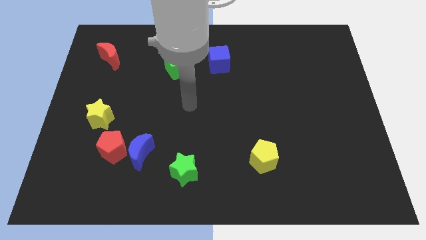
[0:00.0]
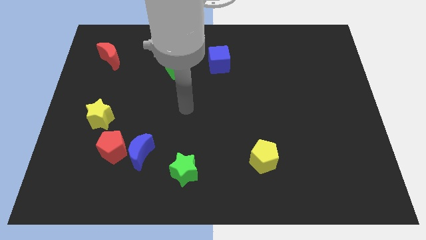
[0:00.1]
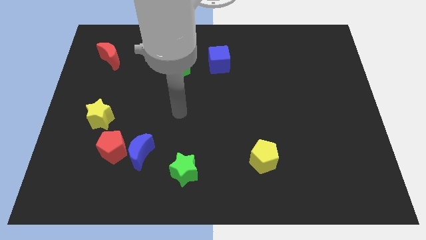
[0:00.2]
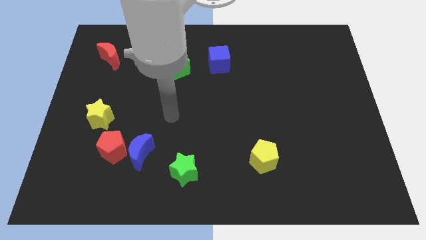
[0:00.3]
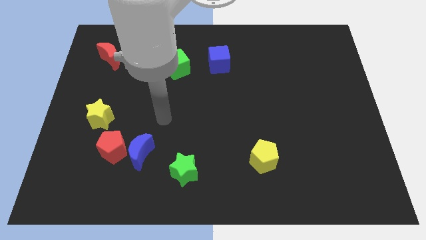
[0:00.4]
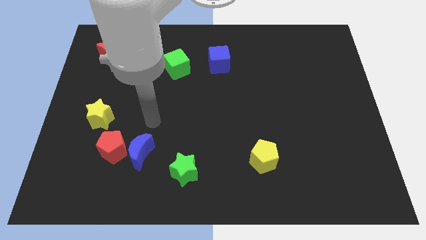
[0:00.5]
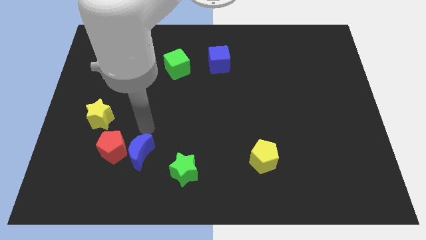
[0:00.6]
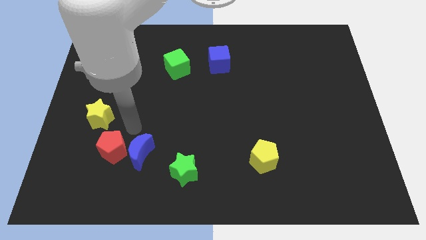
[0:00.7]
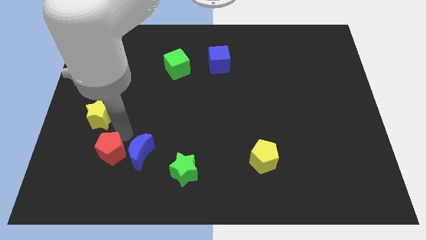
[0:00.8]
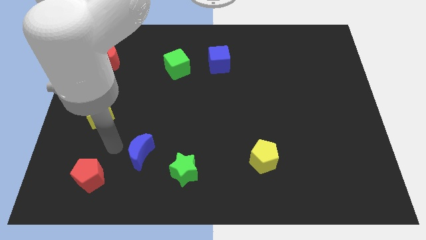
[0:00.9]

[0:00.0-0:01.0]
separate the blue moon from the red pentagon

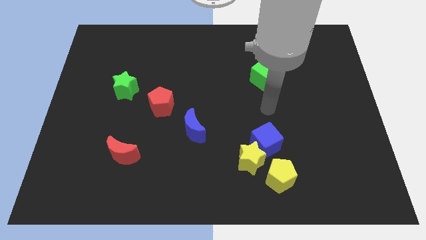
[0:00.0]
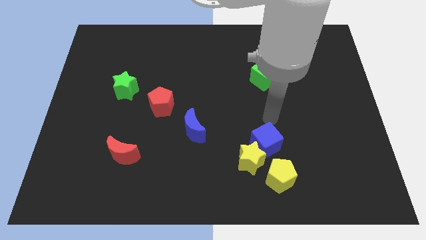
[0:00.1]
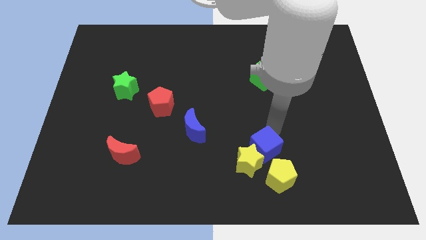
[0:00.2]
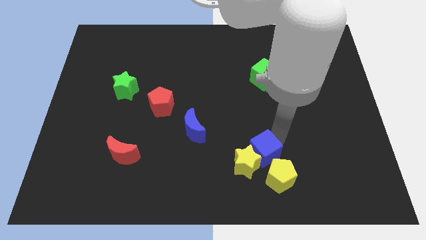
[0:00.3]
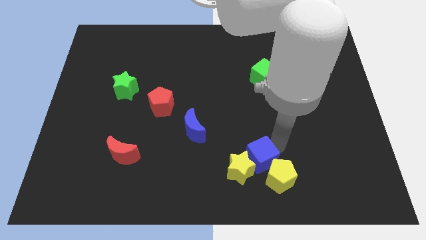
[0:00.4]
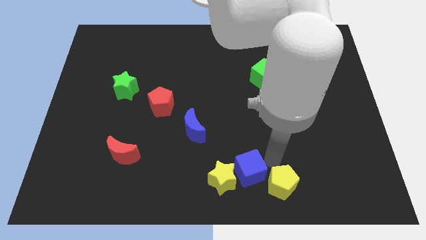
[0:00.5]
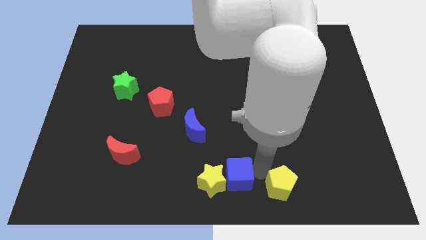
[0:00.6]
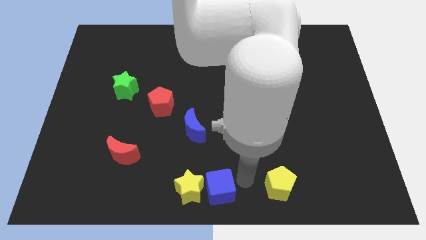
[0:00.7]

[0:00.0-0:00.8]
separate the yellow star from the blue cube and yellow pentagon

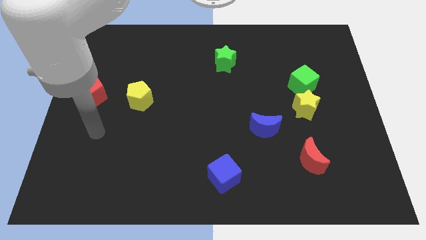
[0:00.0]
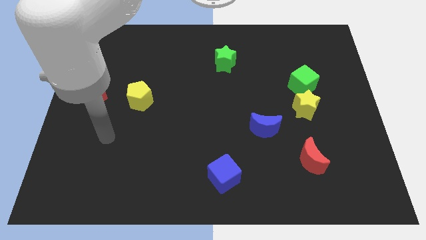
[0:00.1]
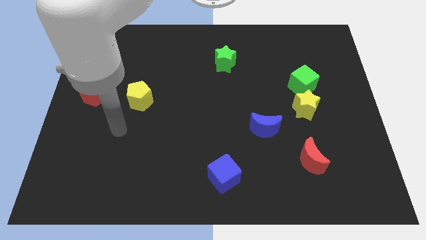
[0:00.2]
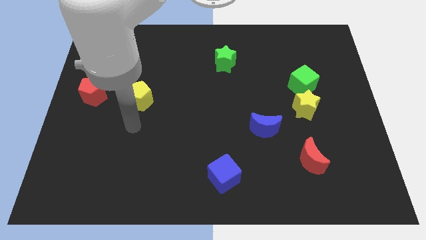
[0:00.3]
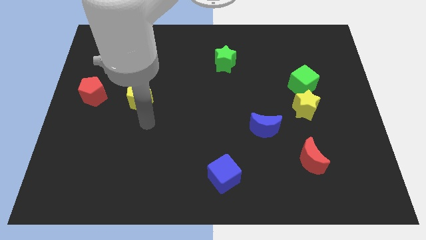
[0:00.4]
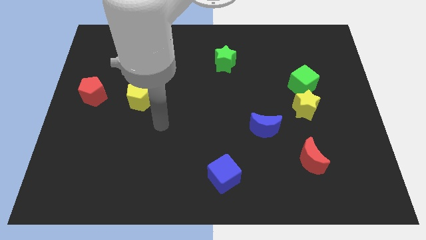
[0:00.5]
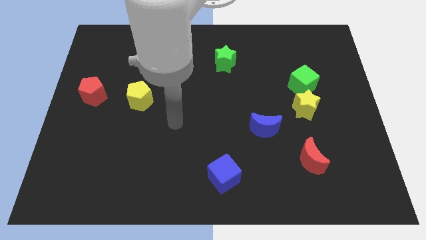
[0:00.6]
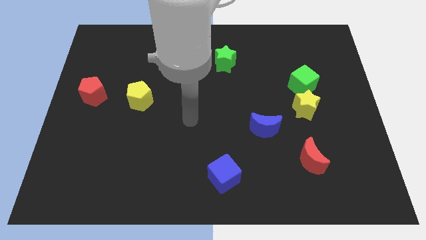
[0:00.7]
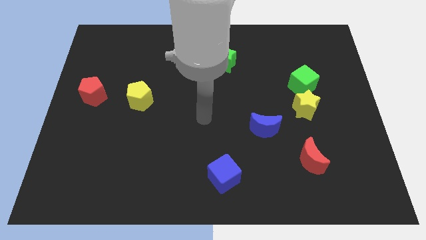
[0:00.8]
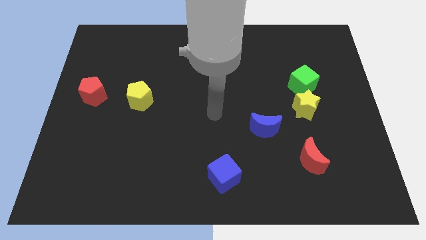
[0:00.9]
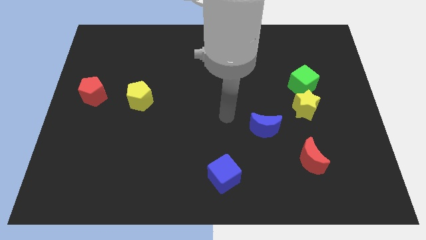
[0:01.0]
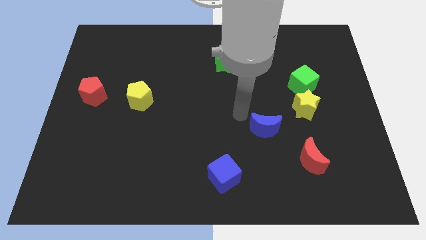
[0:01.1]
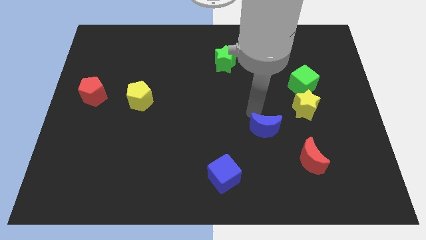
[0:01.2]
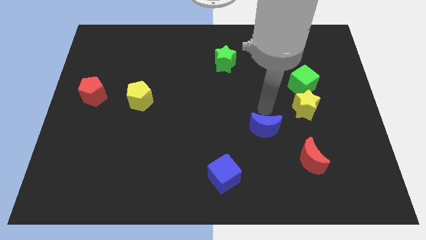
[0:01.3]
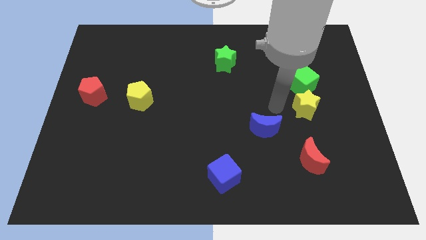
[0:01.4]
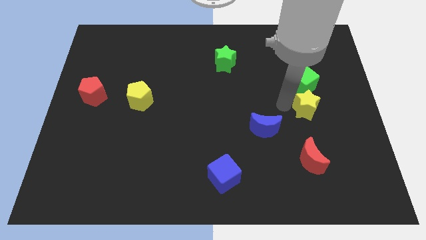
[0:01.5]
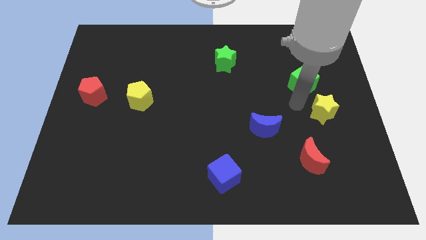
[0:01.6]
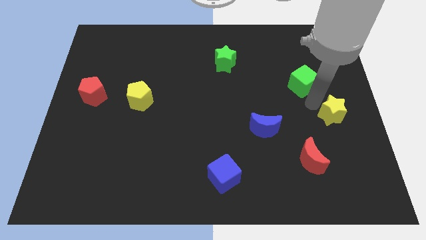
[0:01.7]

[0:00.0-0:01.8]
move the green cube away from the yellow star

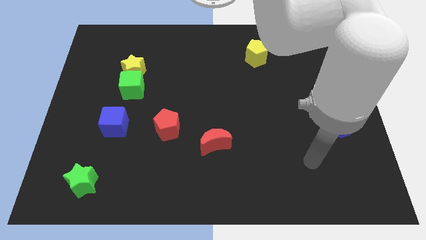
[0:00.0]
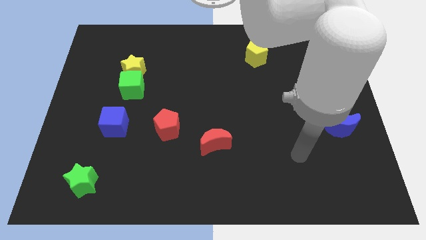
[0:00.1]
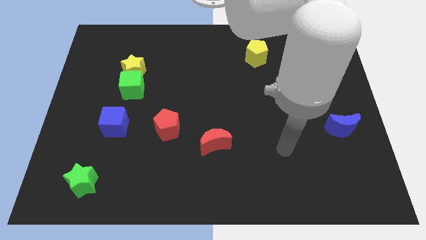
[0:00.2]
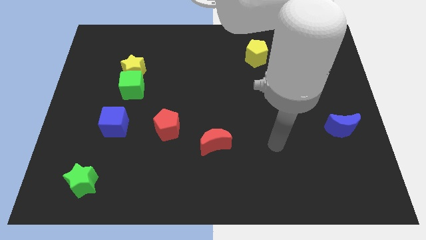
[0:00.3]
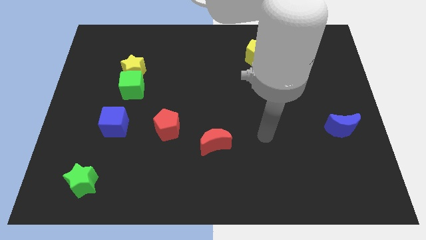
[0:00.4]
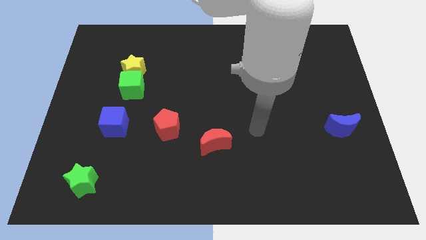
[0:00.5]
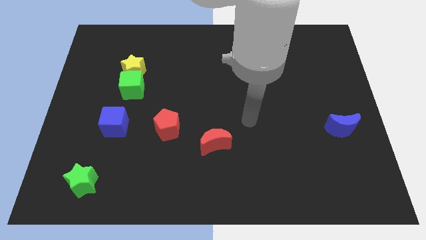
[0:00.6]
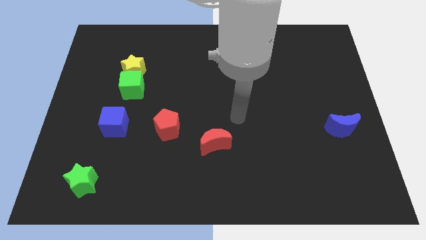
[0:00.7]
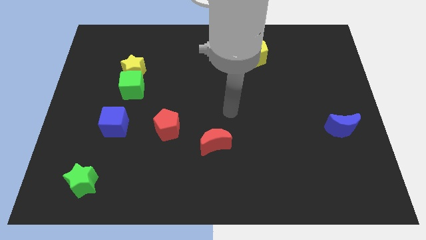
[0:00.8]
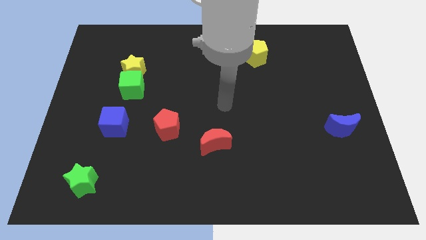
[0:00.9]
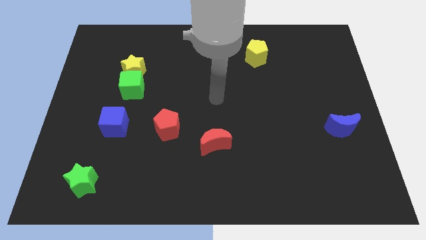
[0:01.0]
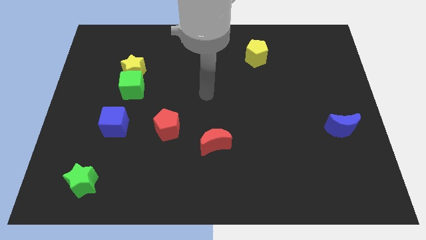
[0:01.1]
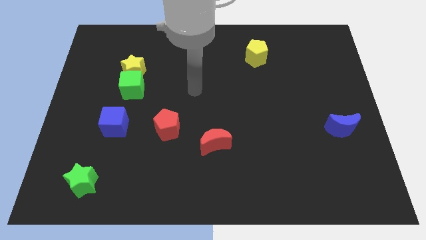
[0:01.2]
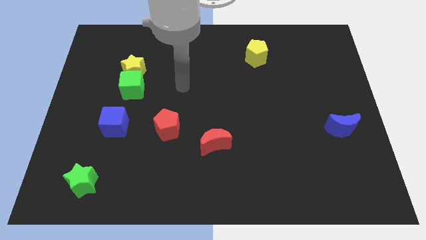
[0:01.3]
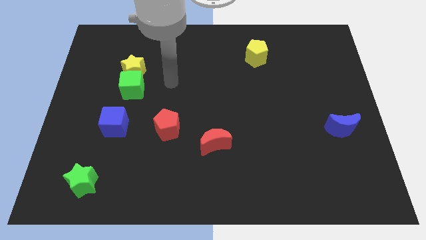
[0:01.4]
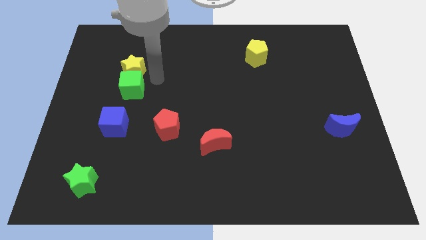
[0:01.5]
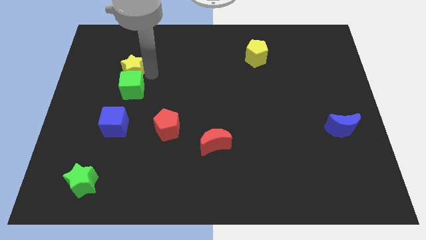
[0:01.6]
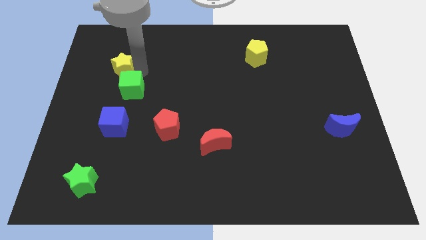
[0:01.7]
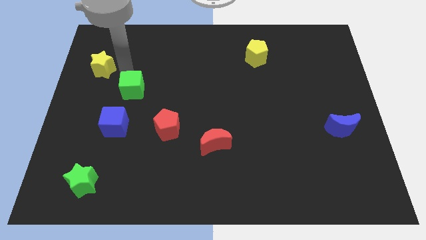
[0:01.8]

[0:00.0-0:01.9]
separate the green cube from the yellow star

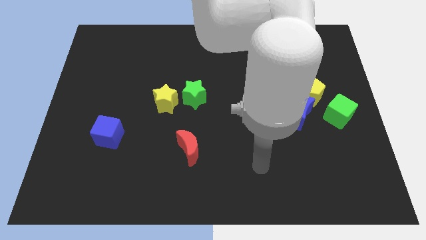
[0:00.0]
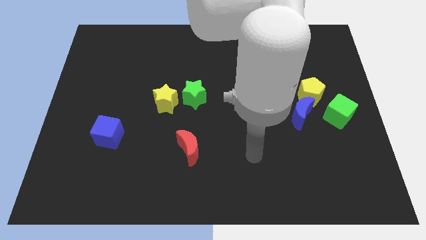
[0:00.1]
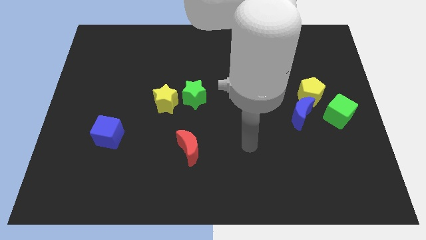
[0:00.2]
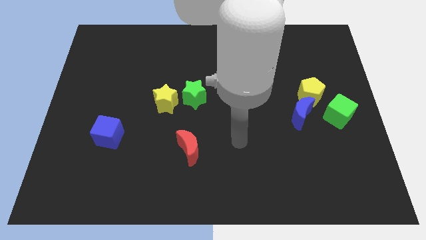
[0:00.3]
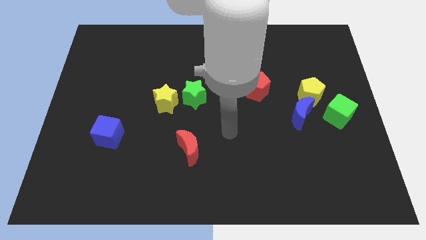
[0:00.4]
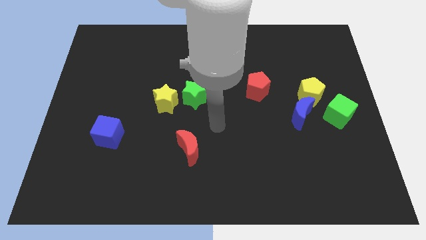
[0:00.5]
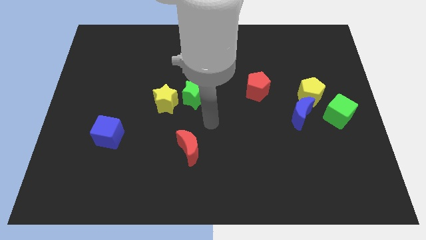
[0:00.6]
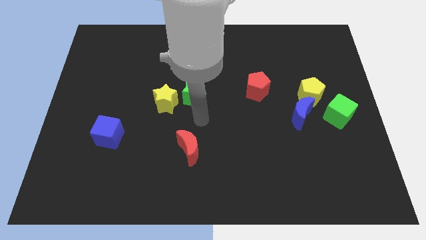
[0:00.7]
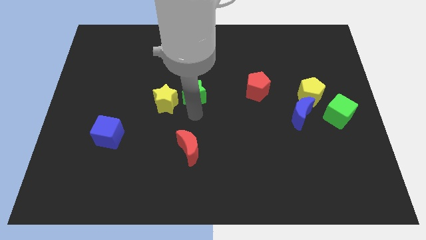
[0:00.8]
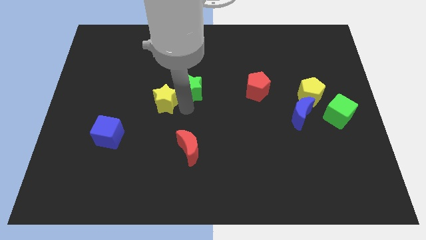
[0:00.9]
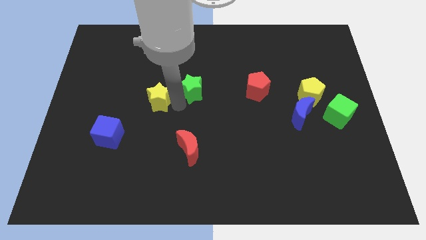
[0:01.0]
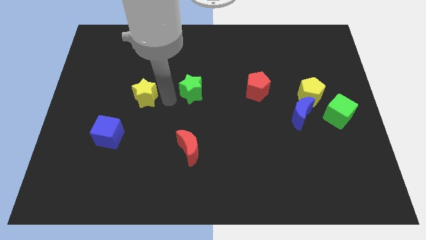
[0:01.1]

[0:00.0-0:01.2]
pull the green star apart from the yellow star

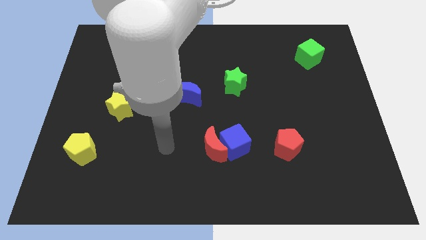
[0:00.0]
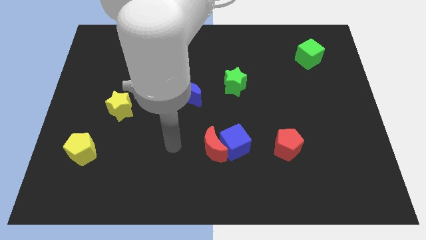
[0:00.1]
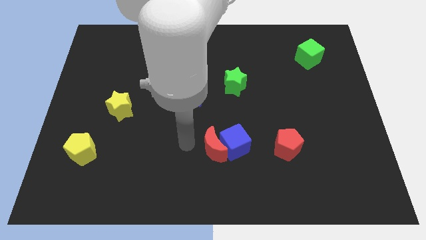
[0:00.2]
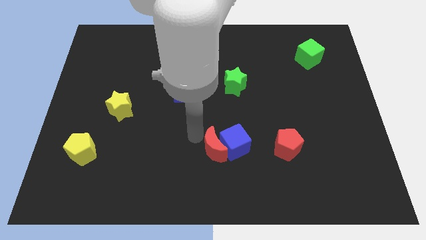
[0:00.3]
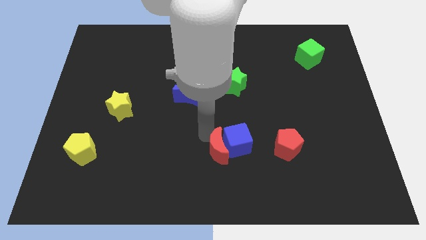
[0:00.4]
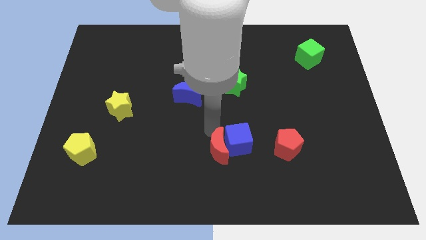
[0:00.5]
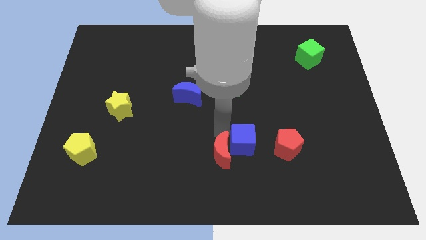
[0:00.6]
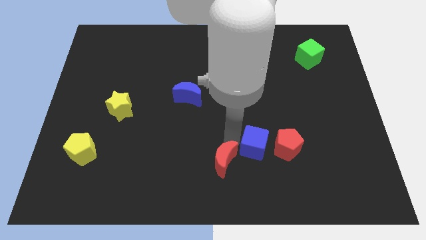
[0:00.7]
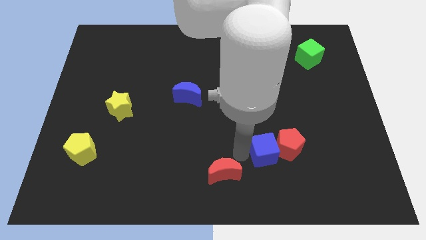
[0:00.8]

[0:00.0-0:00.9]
separate the red moon from the blue cube

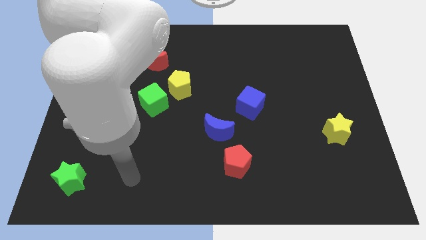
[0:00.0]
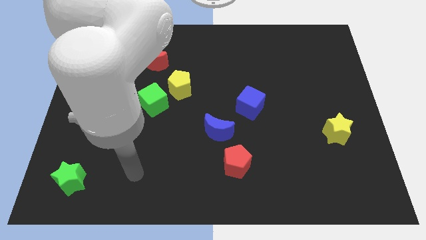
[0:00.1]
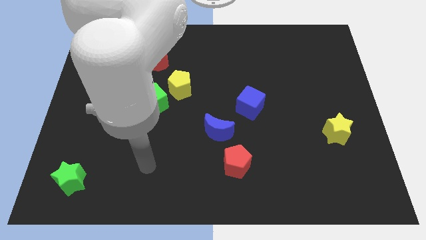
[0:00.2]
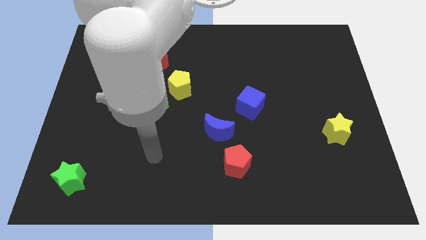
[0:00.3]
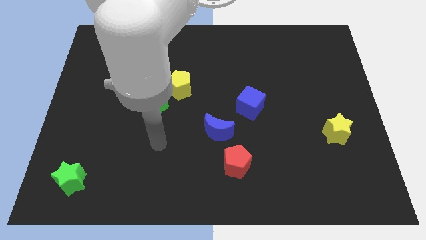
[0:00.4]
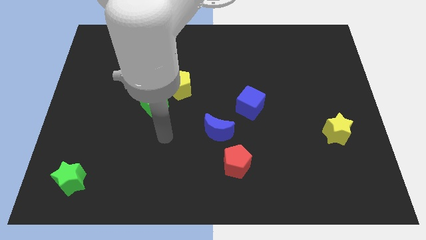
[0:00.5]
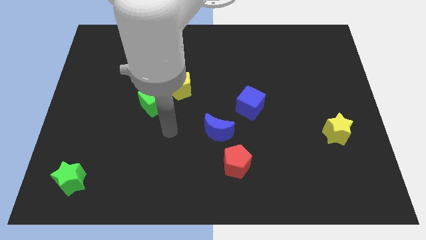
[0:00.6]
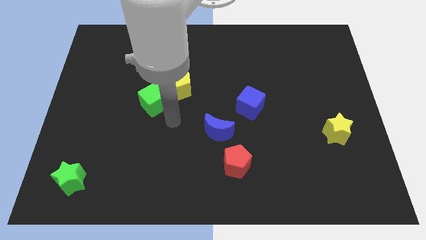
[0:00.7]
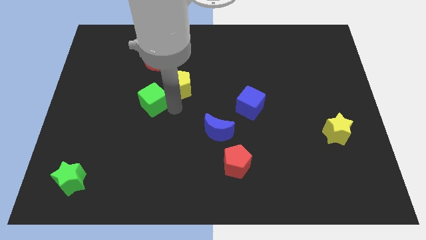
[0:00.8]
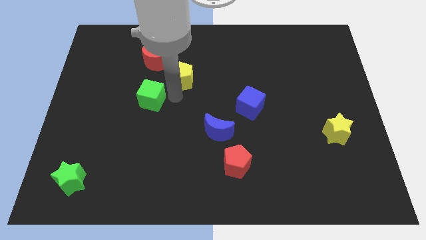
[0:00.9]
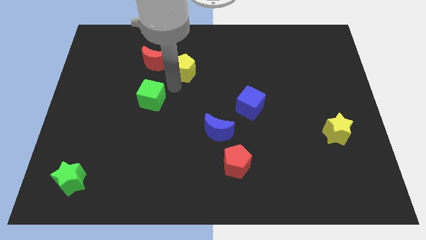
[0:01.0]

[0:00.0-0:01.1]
separate the green cube from the yellow pentagon

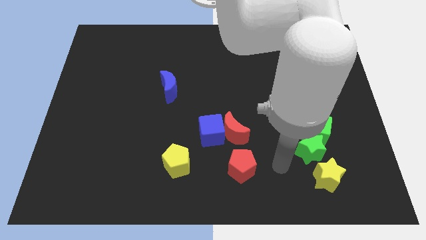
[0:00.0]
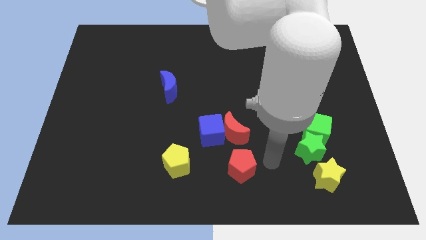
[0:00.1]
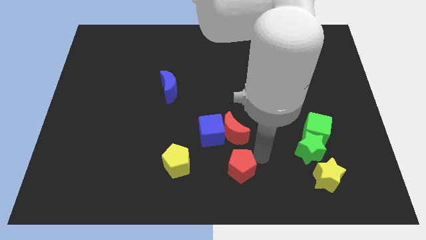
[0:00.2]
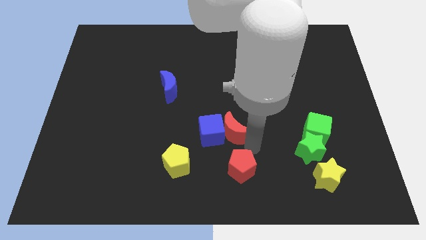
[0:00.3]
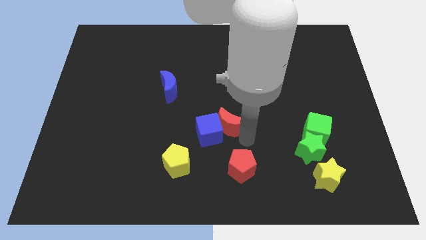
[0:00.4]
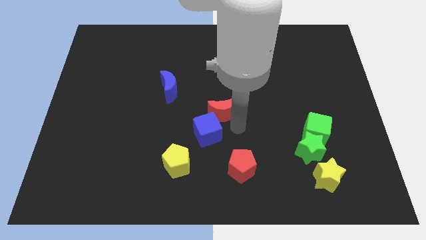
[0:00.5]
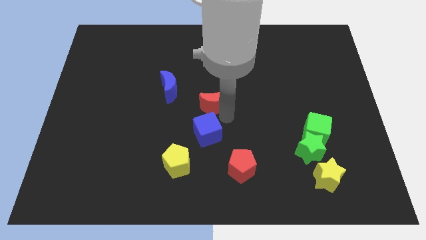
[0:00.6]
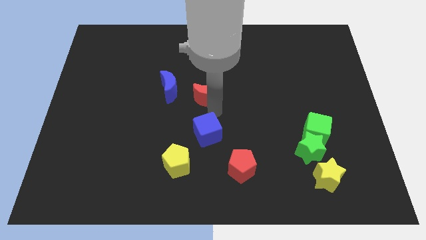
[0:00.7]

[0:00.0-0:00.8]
separate the blue cube from the red moon

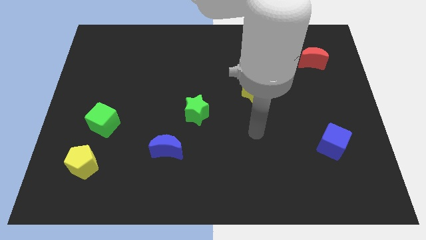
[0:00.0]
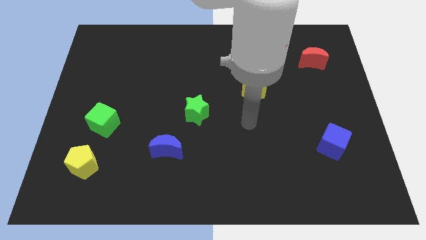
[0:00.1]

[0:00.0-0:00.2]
separate the red moon from the red pentagon
